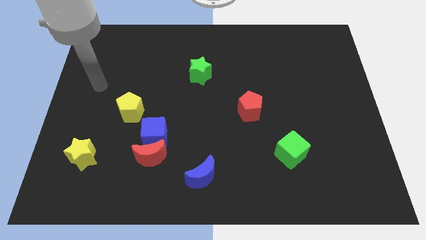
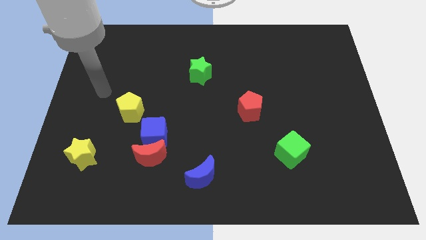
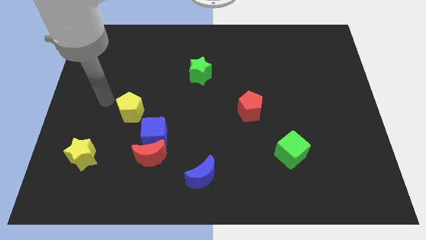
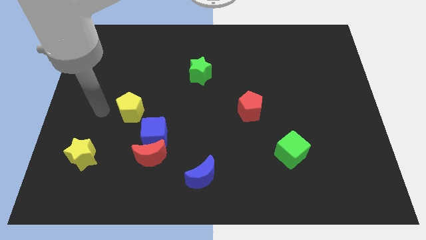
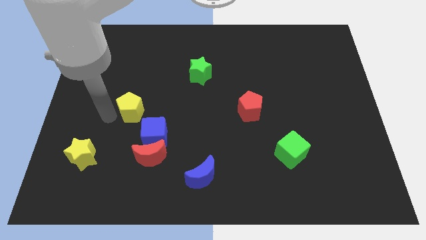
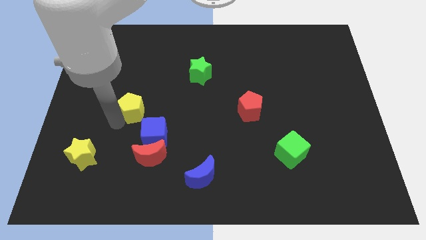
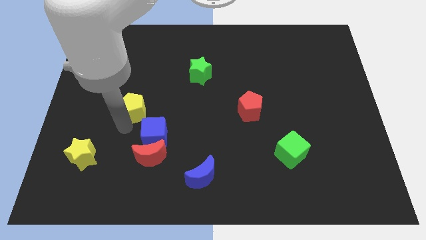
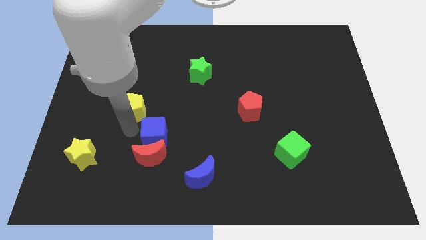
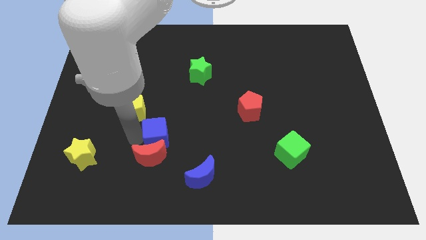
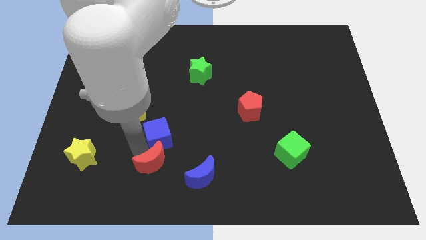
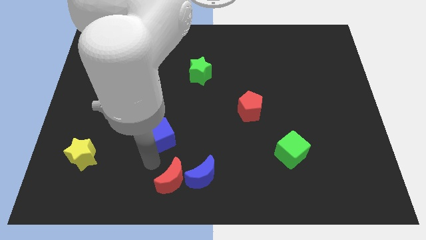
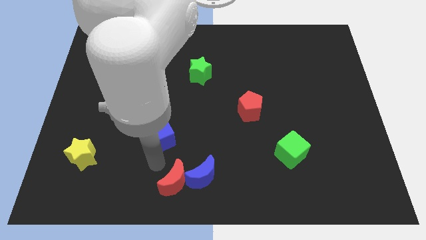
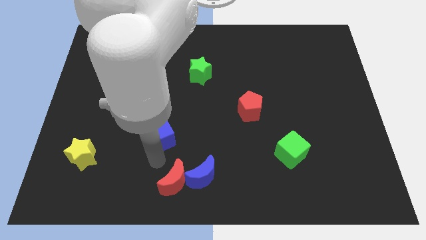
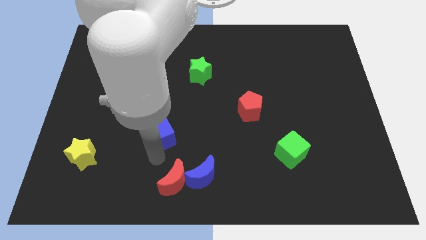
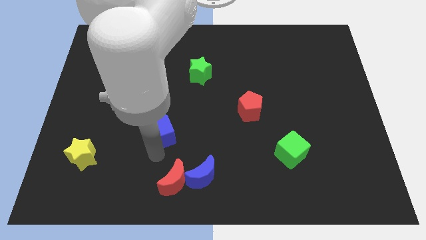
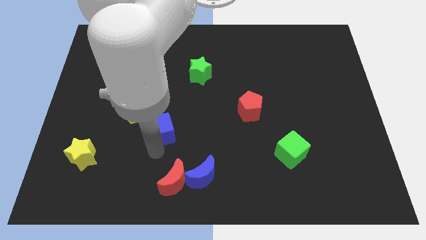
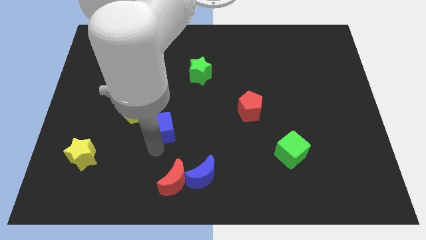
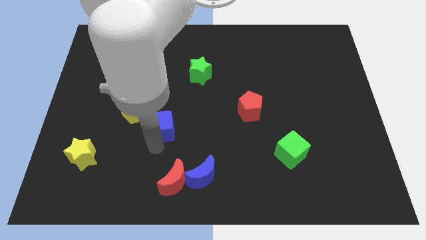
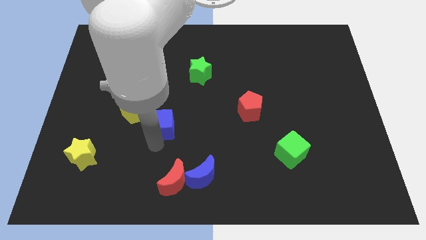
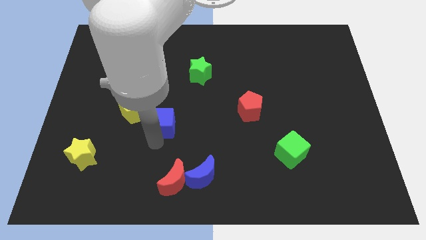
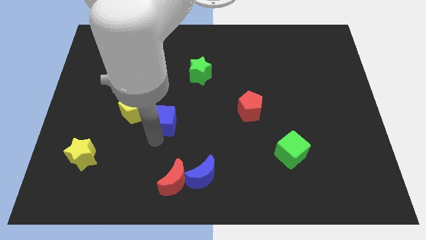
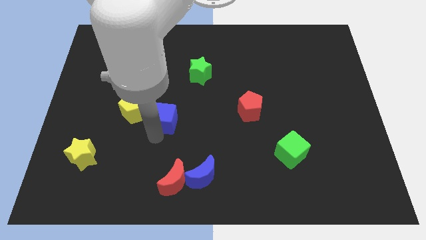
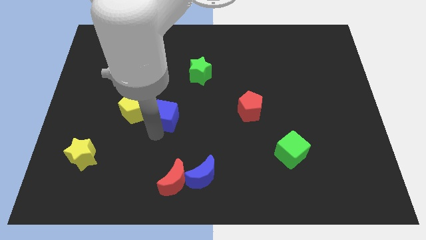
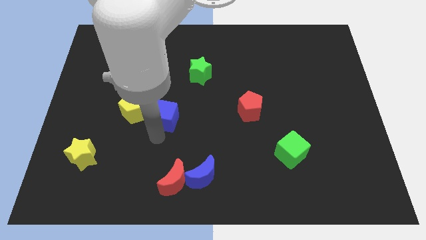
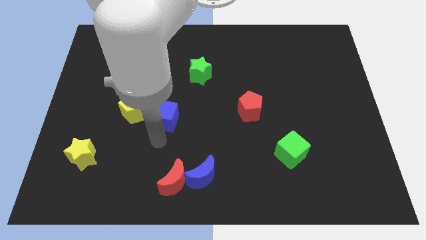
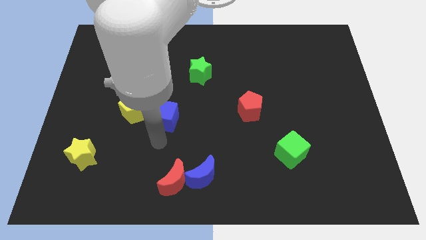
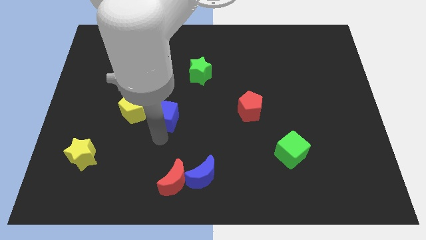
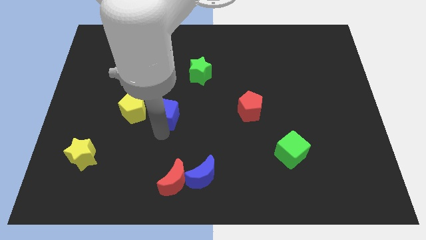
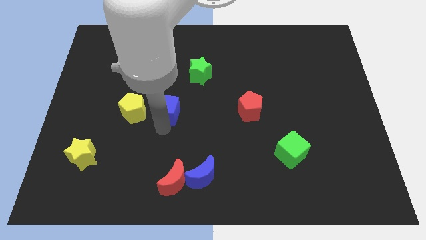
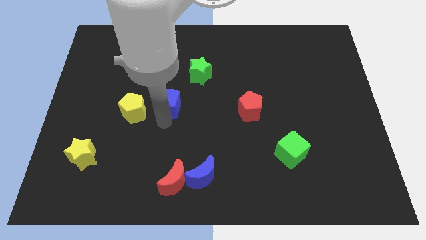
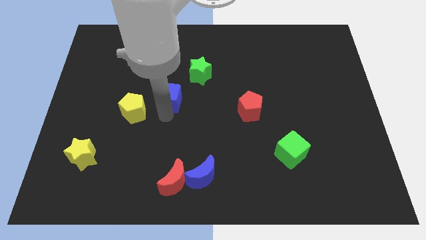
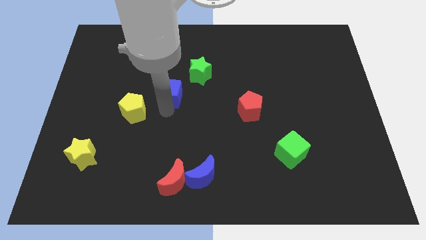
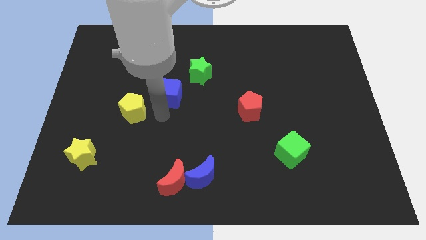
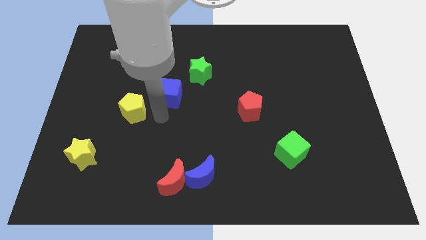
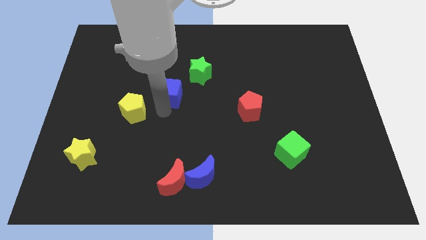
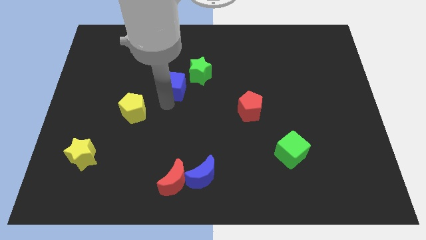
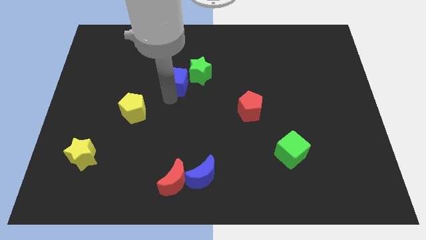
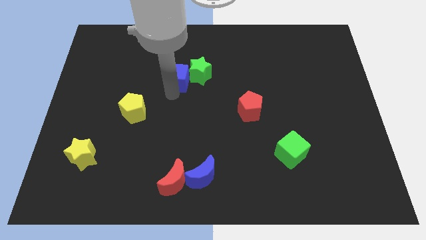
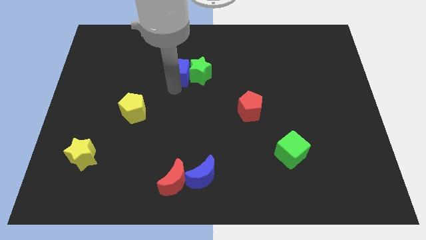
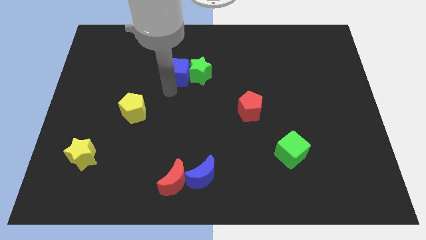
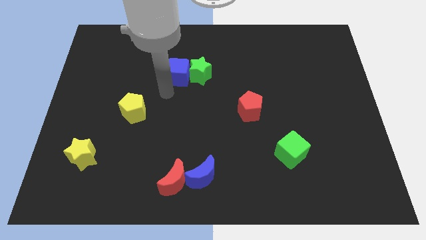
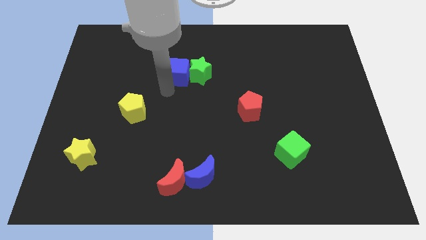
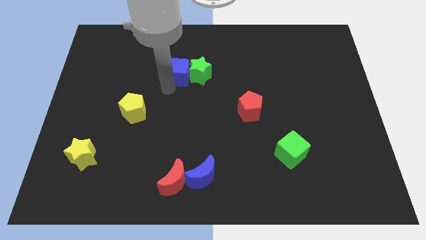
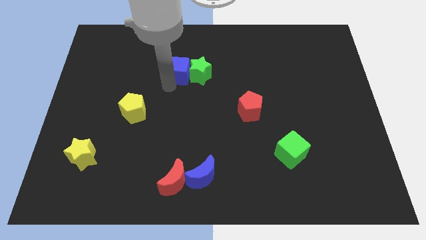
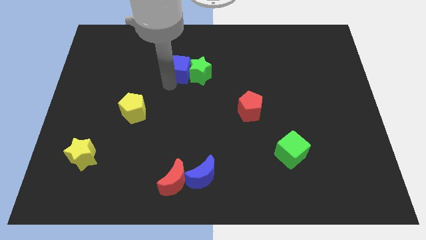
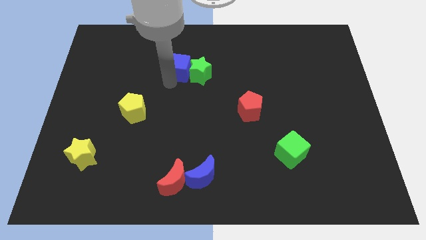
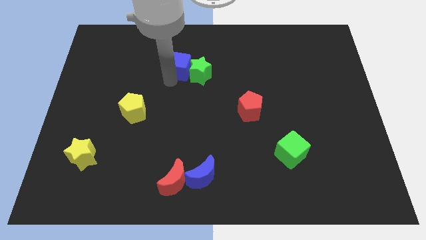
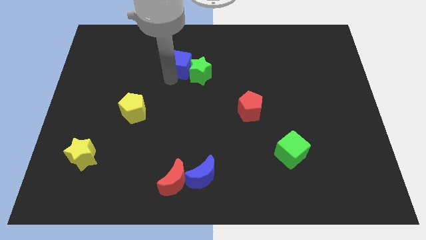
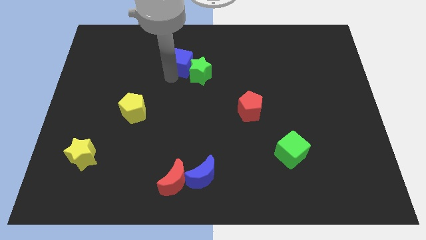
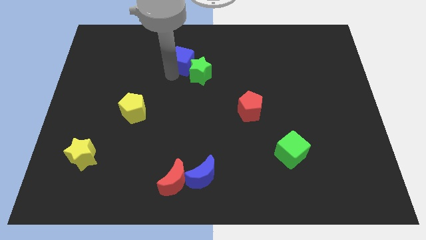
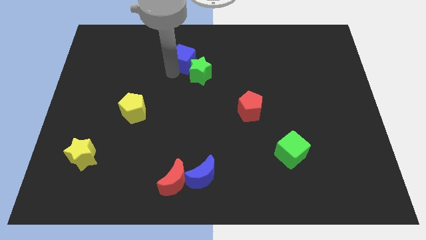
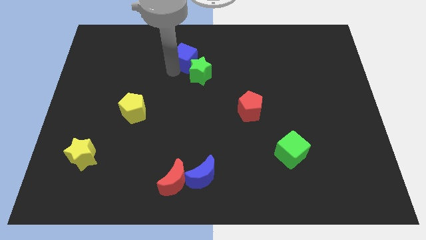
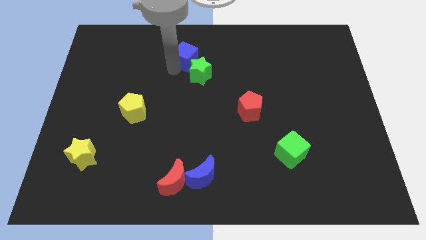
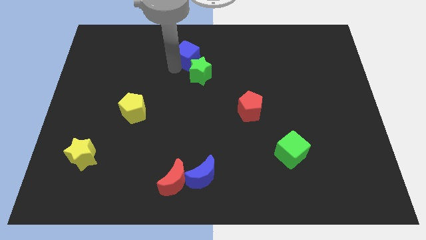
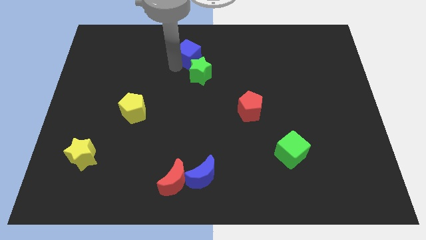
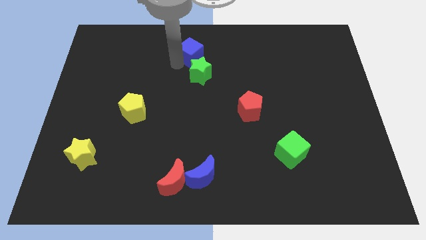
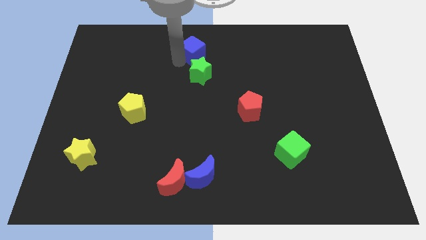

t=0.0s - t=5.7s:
push the blue cube to the towards your base

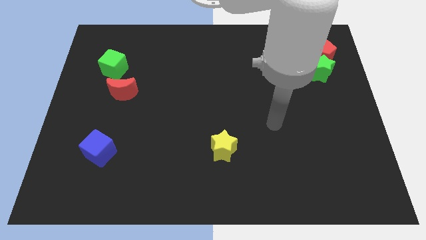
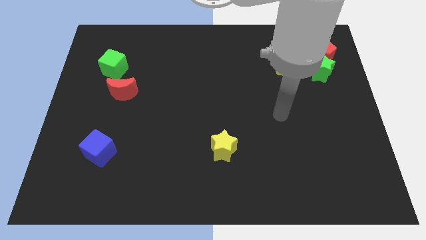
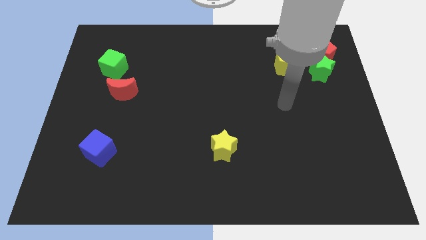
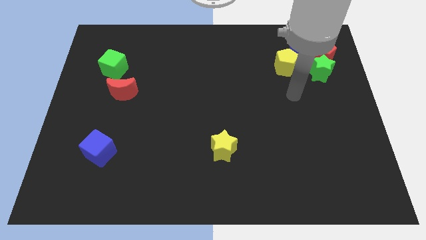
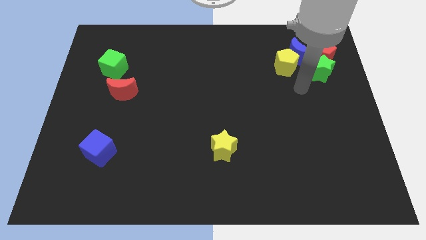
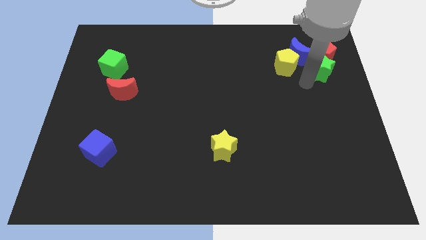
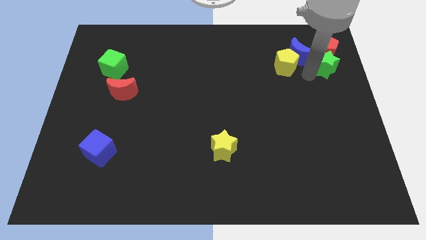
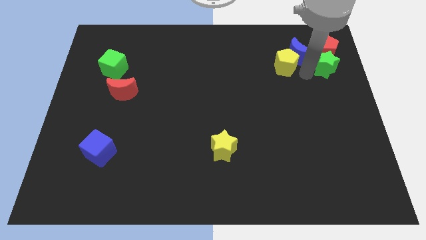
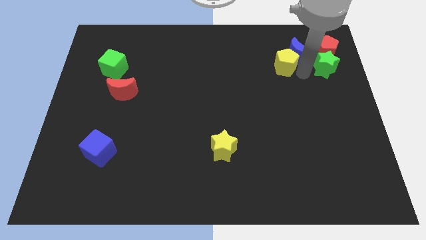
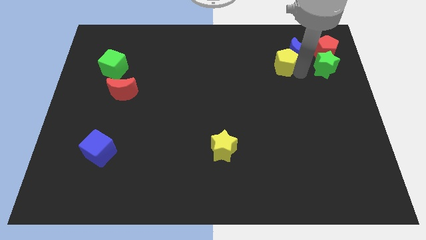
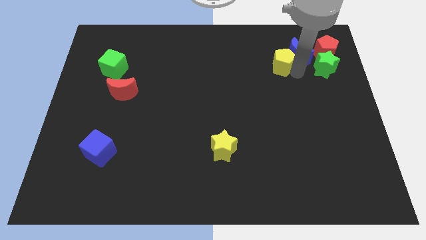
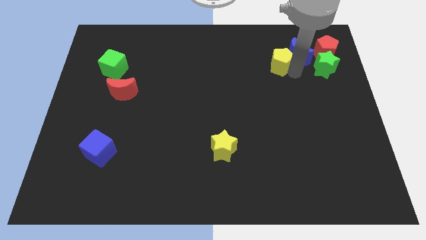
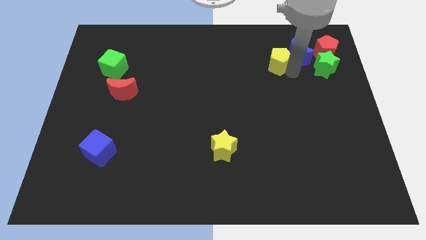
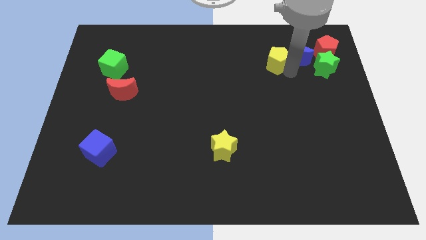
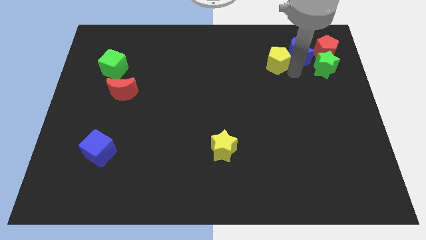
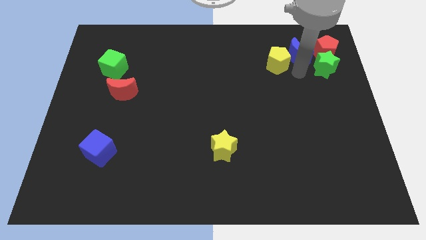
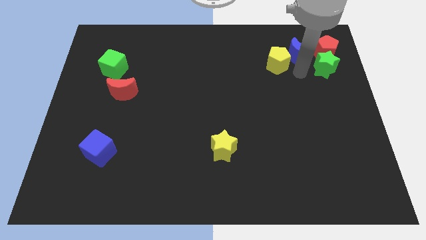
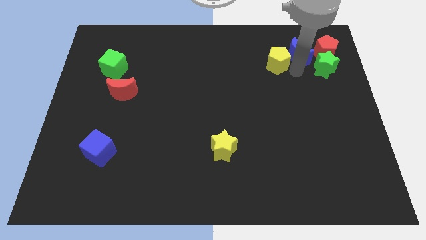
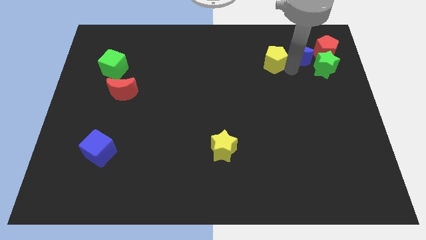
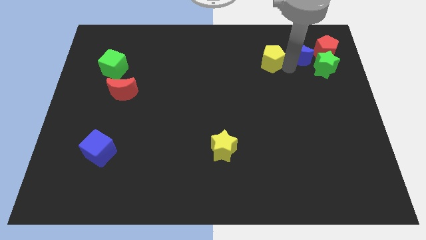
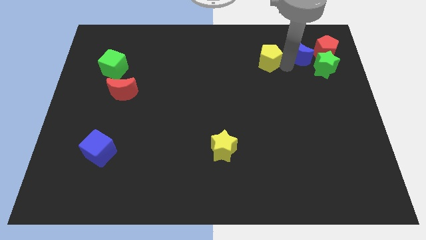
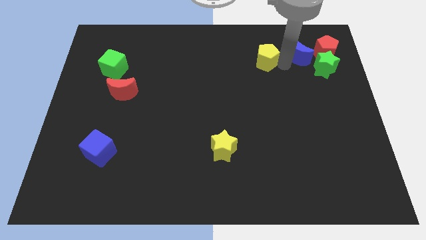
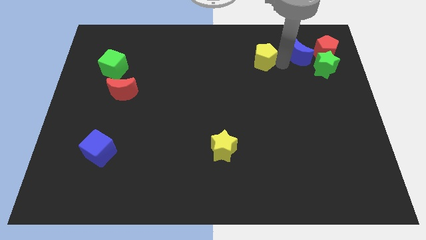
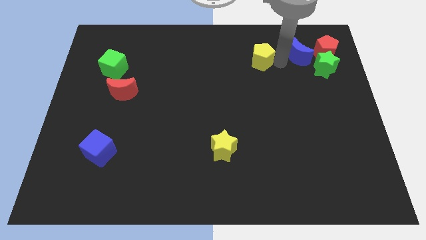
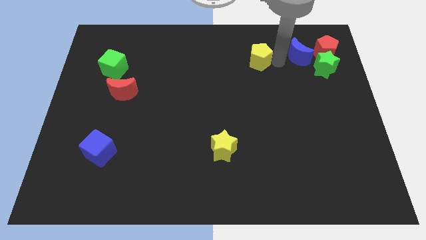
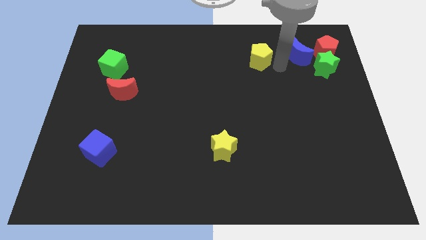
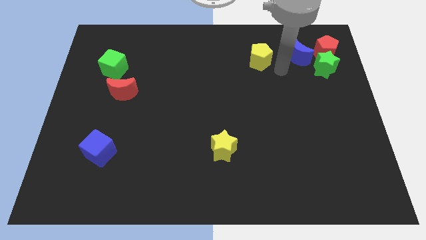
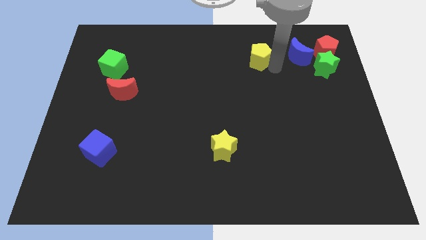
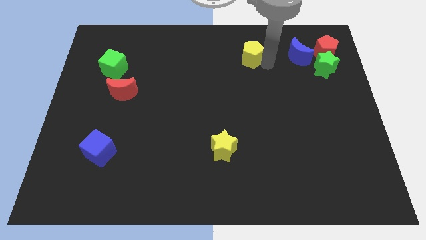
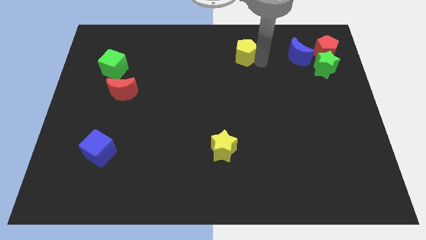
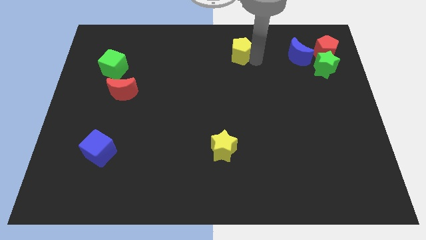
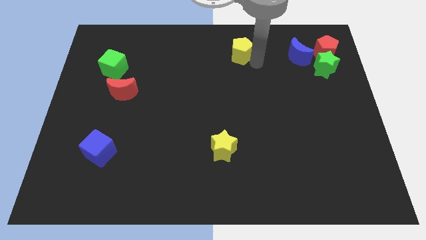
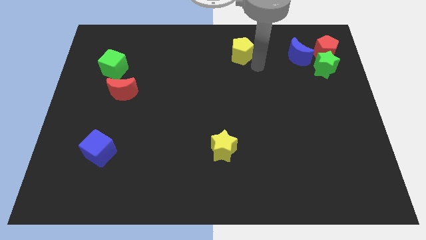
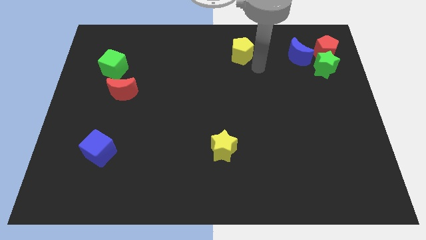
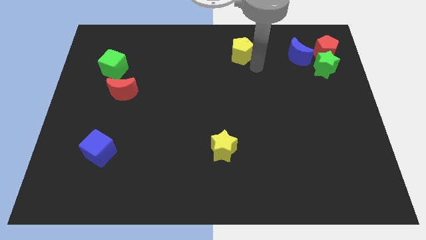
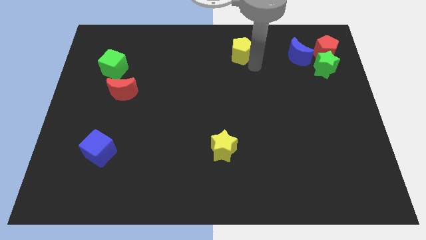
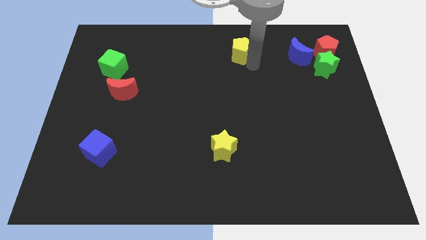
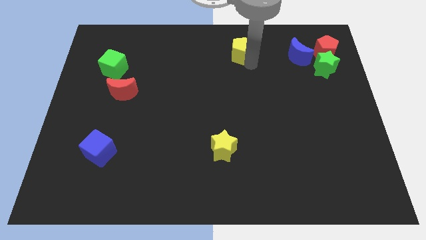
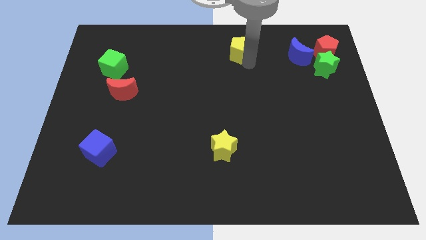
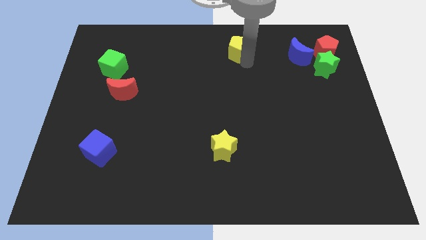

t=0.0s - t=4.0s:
slide the yellow pentagon to the top
